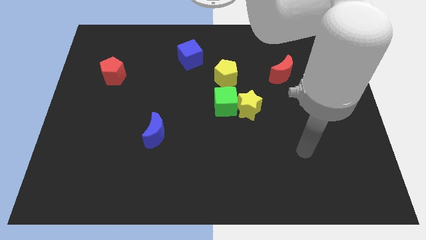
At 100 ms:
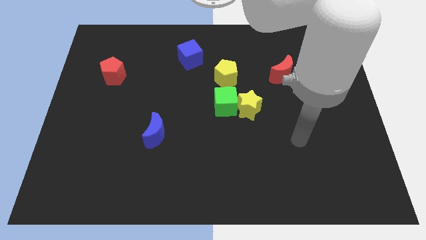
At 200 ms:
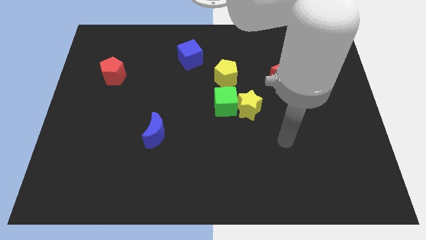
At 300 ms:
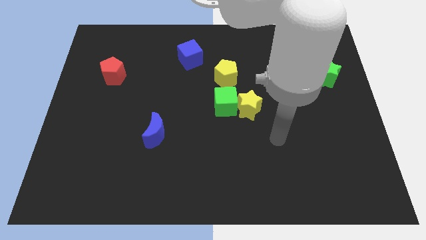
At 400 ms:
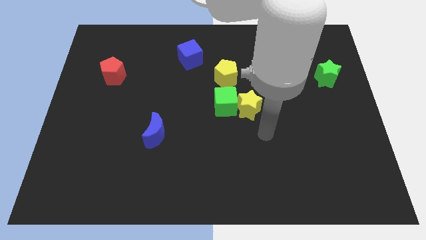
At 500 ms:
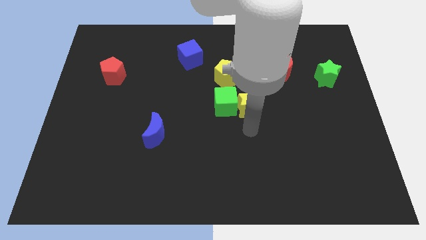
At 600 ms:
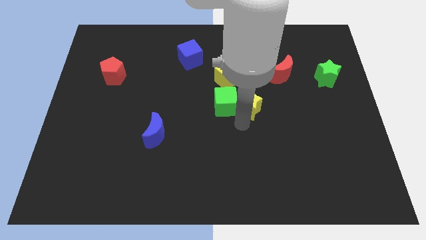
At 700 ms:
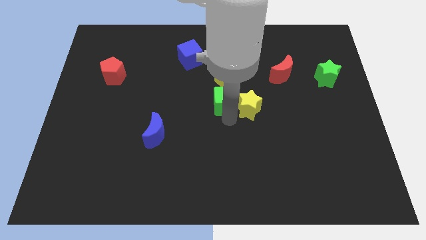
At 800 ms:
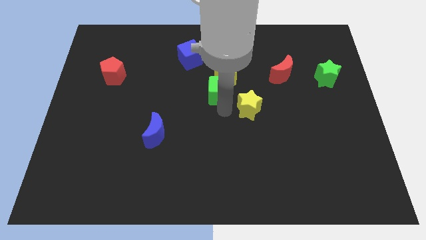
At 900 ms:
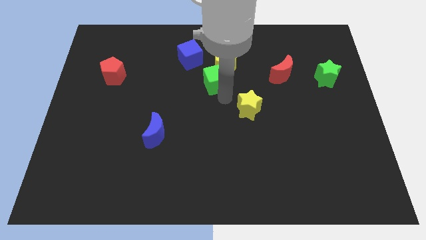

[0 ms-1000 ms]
move the yellow star away from the green cube

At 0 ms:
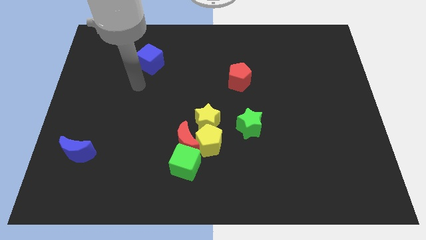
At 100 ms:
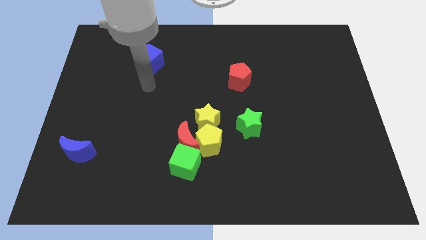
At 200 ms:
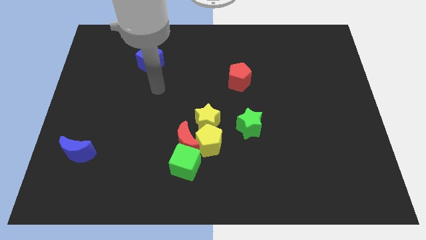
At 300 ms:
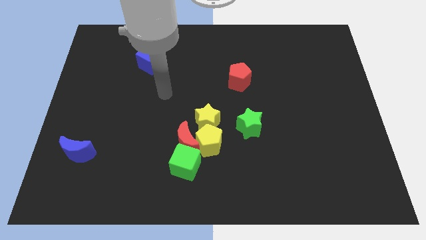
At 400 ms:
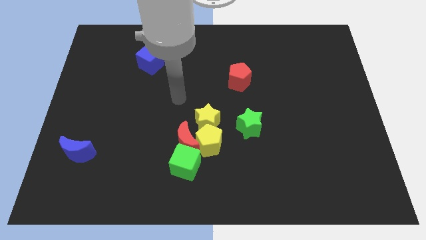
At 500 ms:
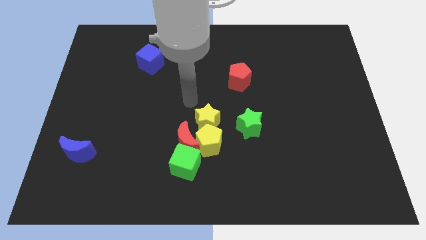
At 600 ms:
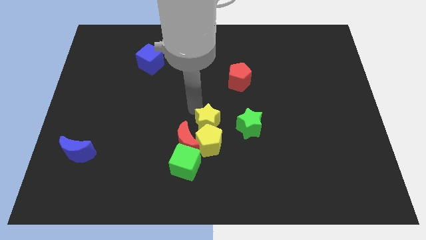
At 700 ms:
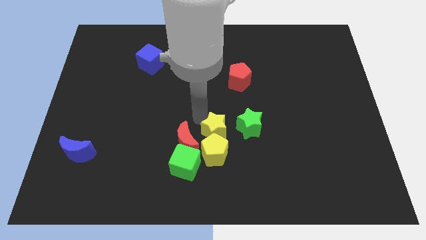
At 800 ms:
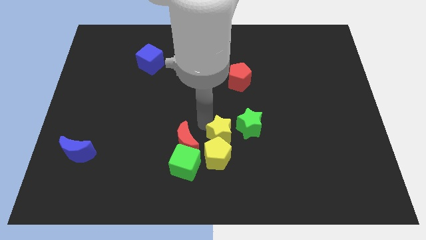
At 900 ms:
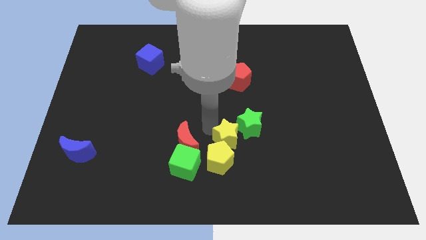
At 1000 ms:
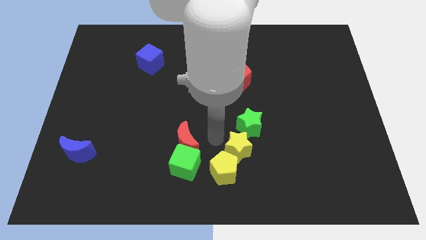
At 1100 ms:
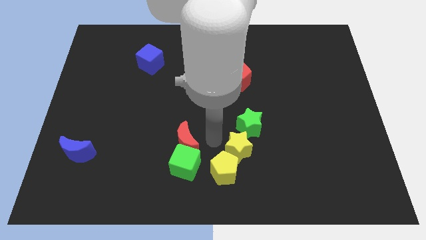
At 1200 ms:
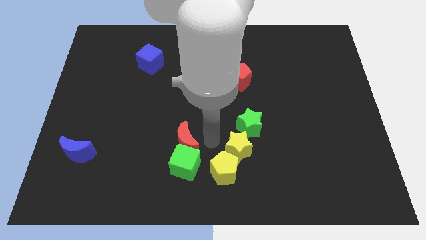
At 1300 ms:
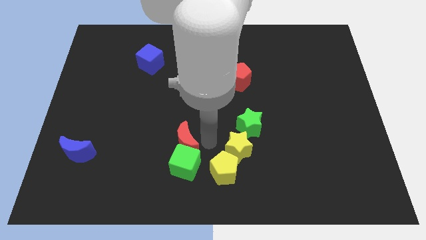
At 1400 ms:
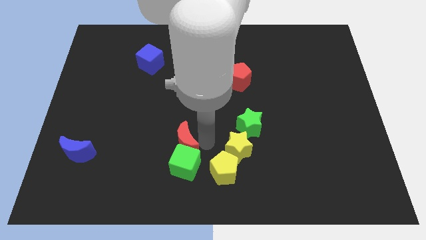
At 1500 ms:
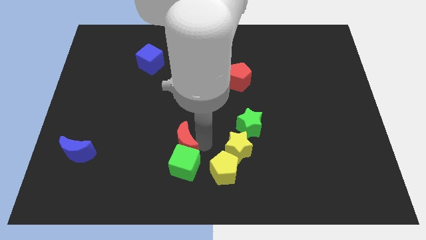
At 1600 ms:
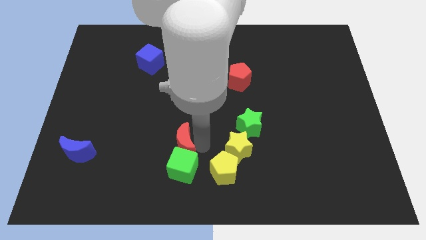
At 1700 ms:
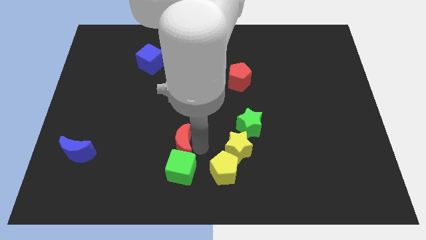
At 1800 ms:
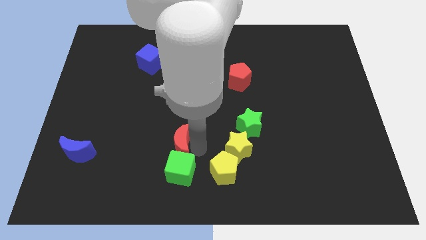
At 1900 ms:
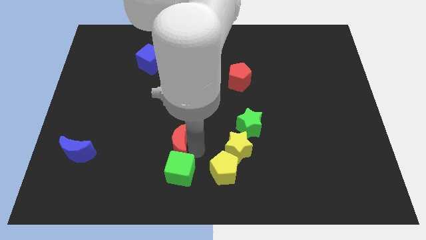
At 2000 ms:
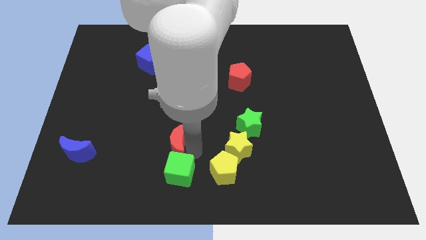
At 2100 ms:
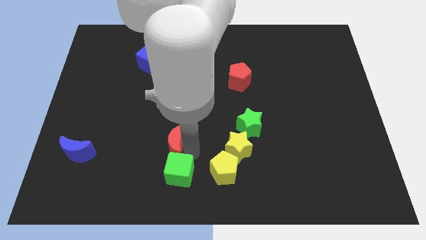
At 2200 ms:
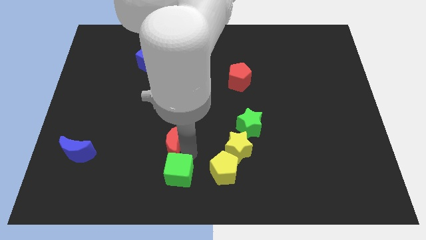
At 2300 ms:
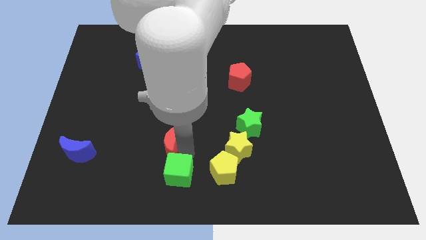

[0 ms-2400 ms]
separate the red moon from the group of blocks

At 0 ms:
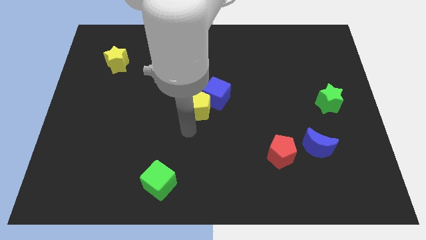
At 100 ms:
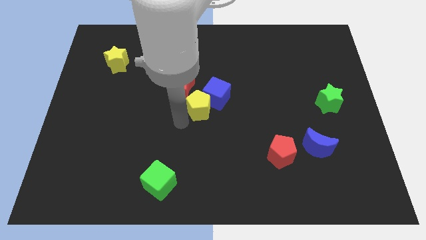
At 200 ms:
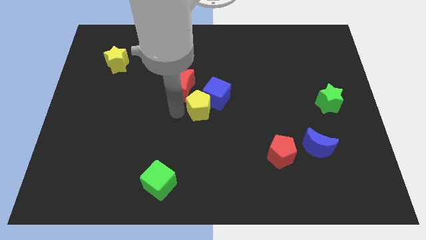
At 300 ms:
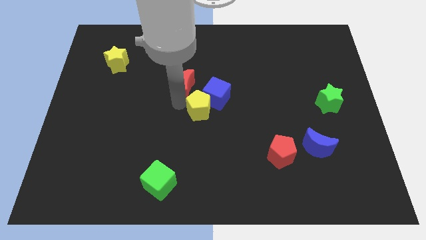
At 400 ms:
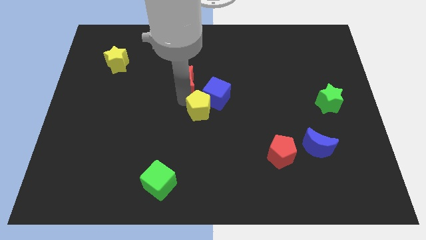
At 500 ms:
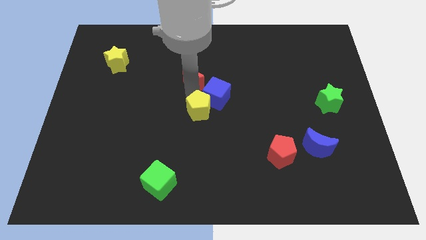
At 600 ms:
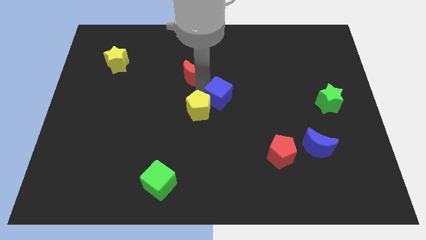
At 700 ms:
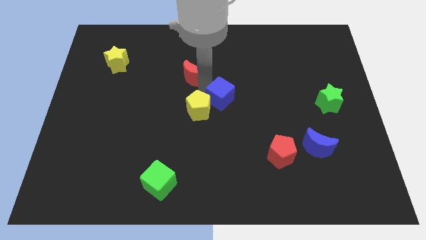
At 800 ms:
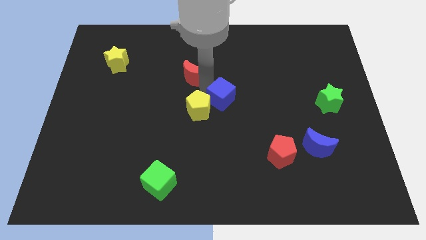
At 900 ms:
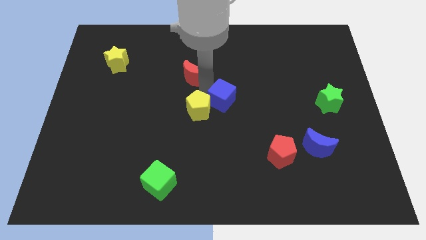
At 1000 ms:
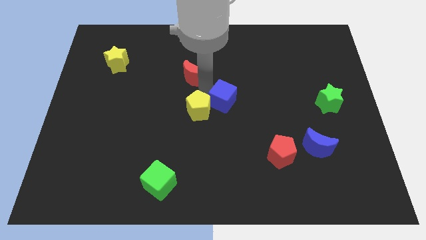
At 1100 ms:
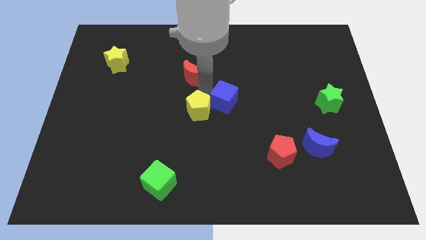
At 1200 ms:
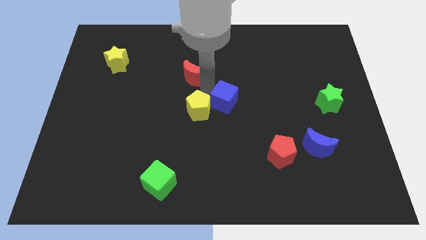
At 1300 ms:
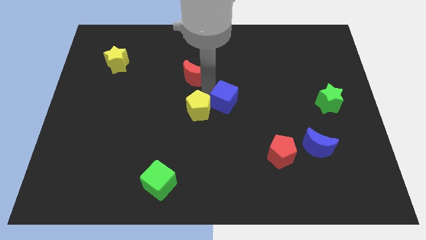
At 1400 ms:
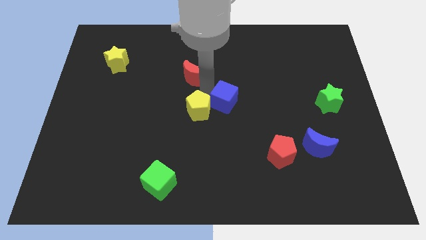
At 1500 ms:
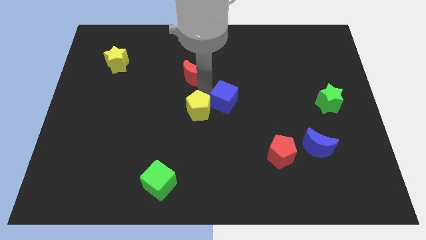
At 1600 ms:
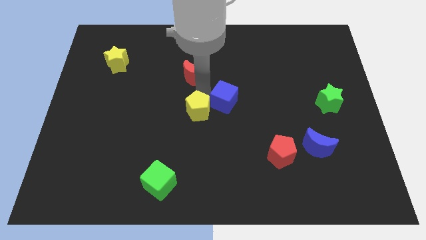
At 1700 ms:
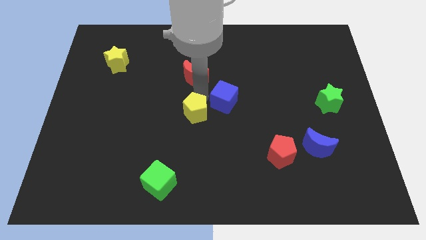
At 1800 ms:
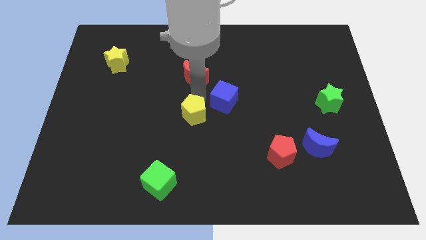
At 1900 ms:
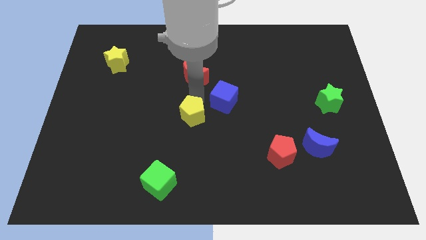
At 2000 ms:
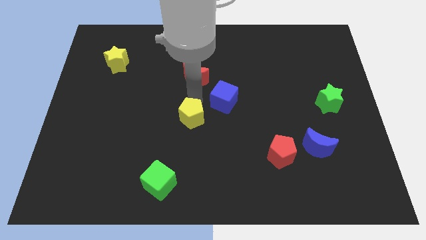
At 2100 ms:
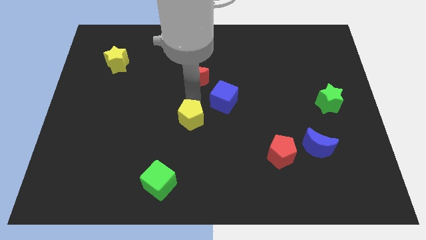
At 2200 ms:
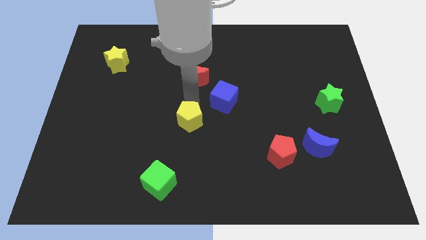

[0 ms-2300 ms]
move the yellow pentagon away from the blue cube and red moon

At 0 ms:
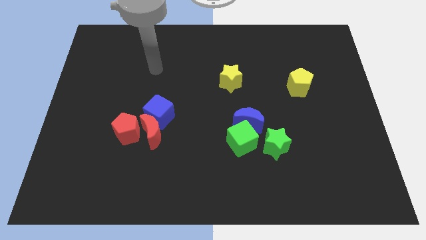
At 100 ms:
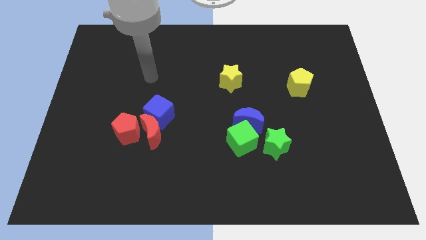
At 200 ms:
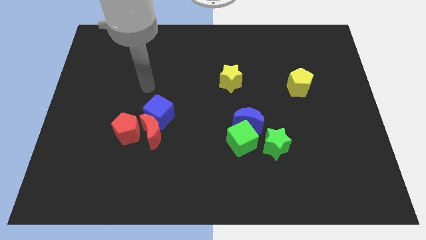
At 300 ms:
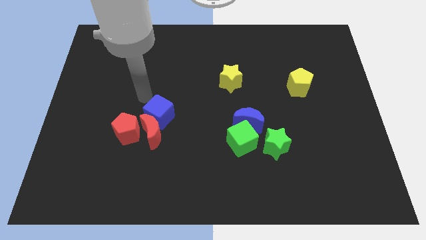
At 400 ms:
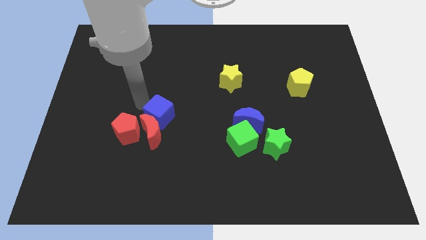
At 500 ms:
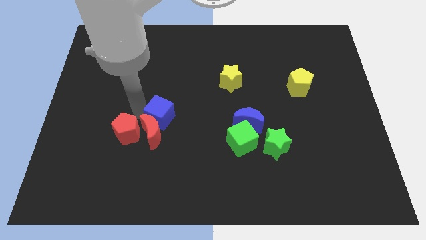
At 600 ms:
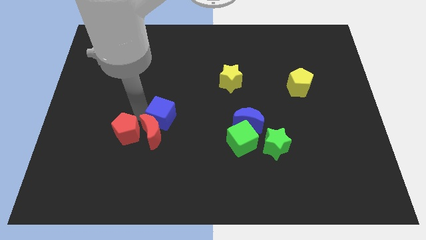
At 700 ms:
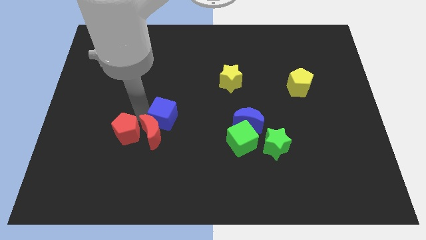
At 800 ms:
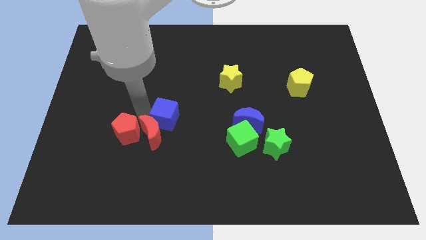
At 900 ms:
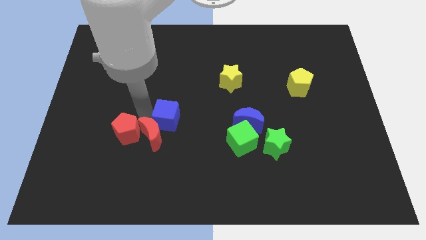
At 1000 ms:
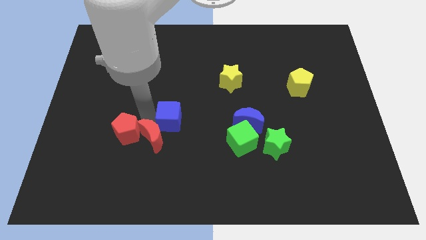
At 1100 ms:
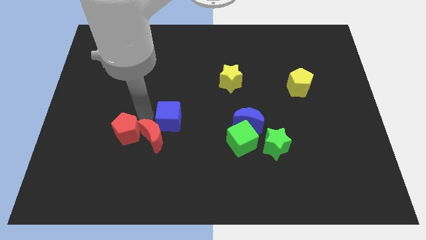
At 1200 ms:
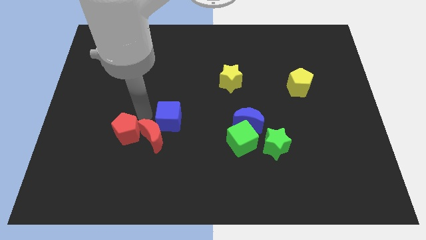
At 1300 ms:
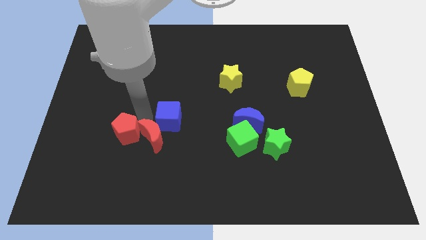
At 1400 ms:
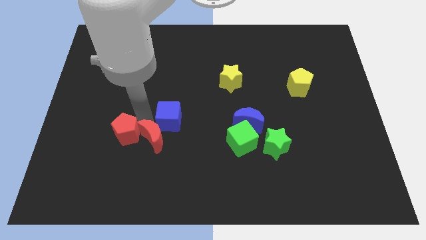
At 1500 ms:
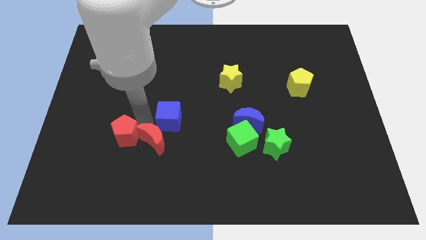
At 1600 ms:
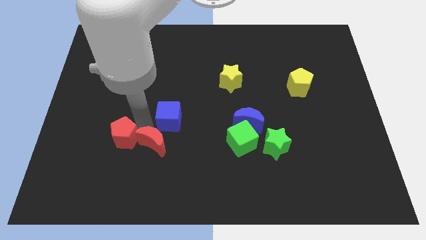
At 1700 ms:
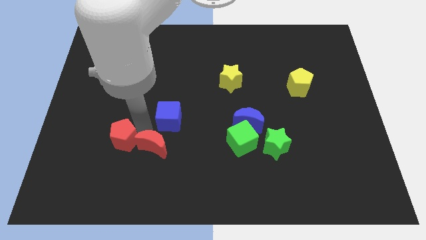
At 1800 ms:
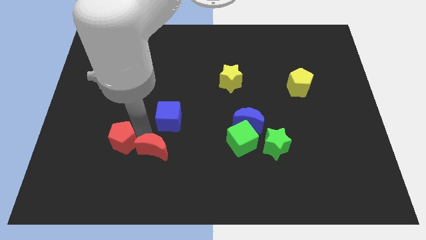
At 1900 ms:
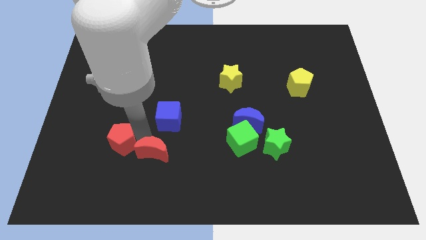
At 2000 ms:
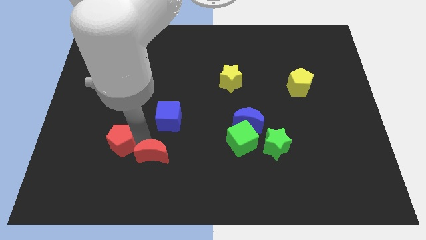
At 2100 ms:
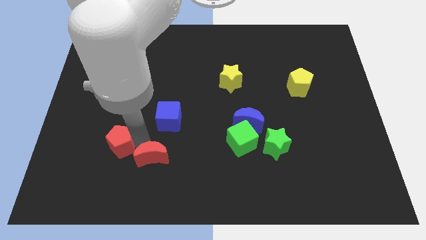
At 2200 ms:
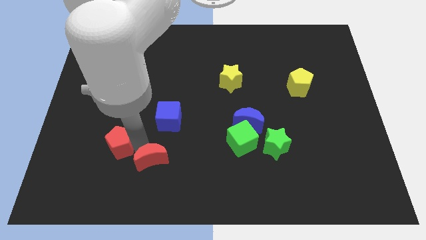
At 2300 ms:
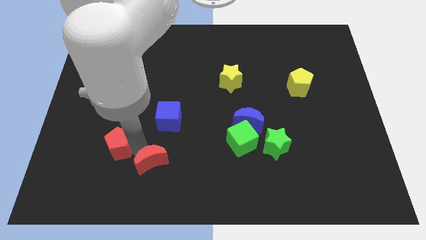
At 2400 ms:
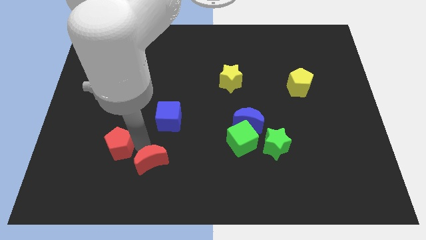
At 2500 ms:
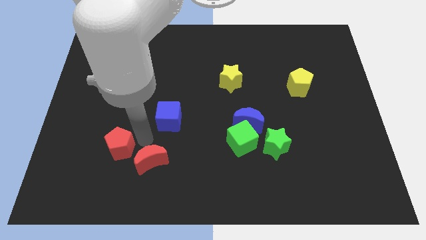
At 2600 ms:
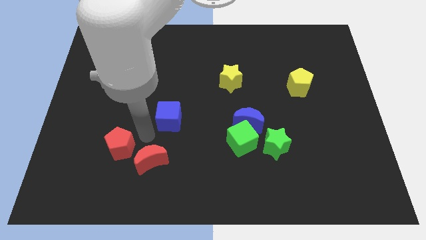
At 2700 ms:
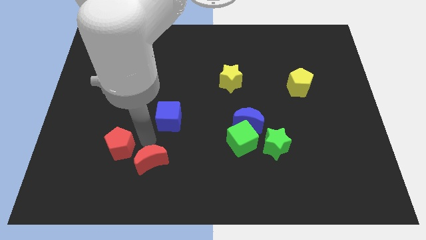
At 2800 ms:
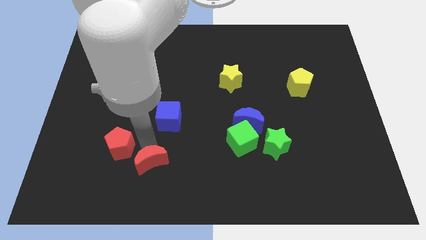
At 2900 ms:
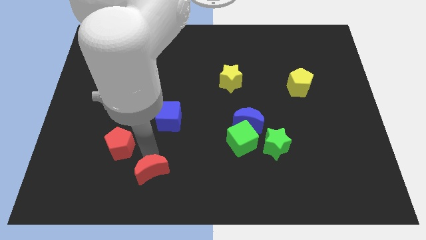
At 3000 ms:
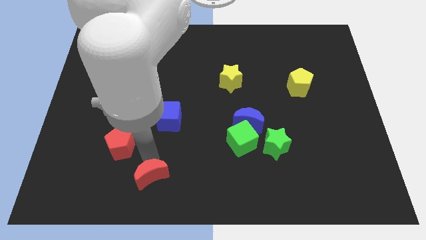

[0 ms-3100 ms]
pull the red moon apart from the blue cube and red pentagon

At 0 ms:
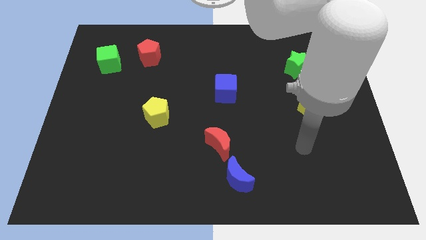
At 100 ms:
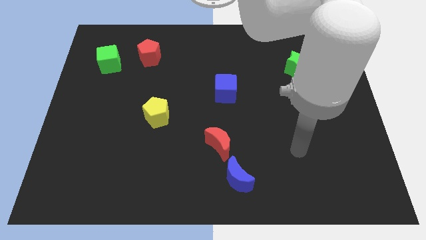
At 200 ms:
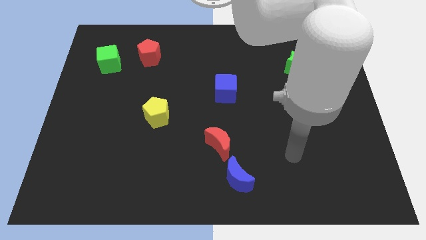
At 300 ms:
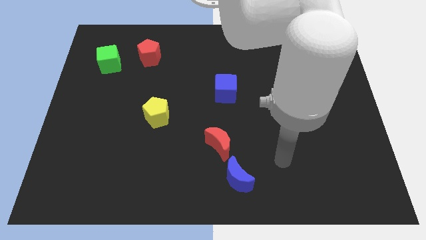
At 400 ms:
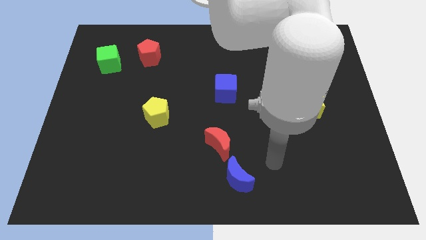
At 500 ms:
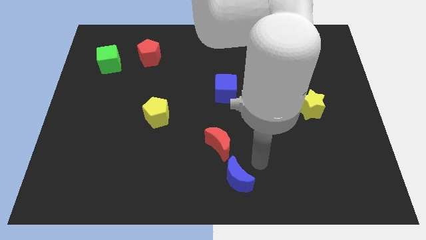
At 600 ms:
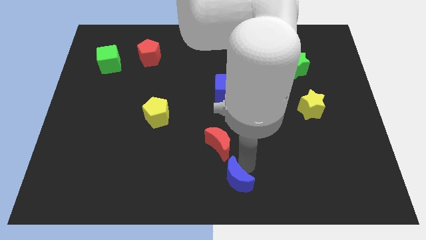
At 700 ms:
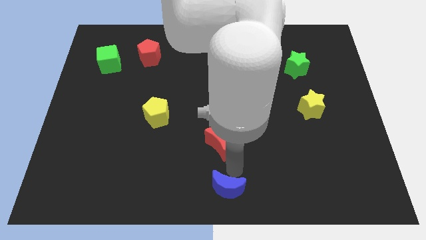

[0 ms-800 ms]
pull the red moon apart from the blue moon
